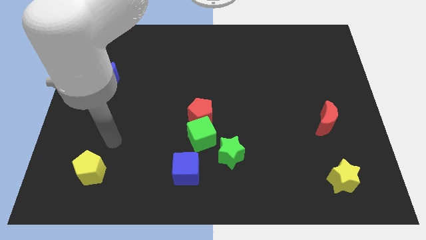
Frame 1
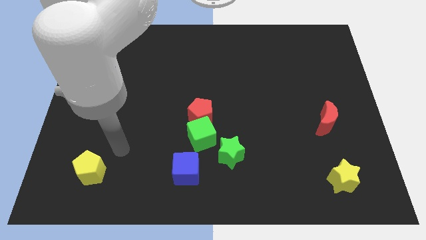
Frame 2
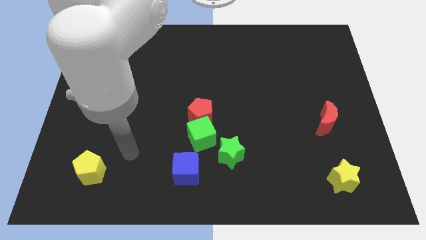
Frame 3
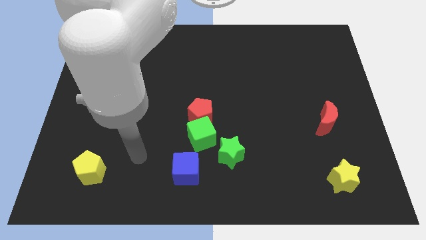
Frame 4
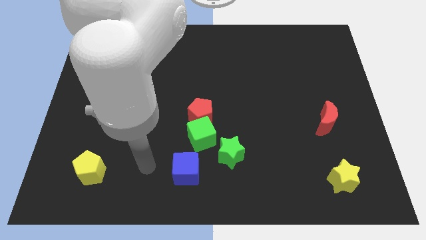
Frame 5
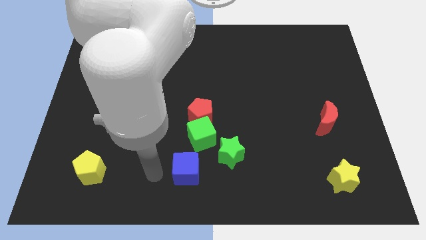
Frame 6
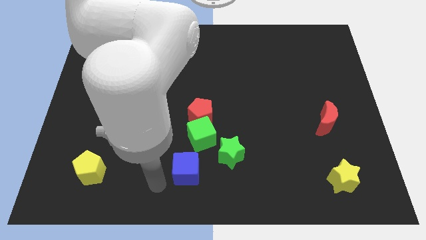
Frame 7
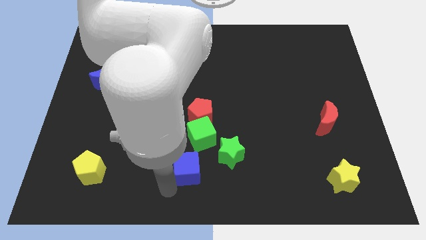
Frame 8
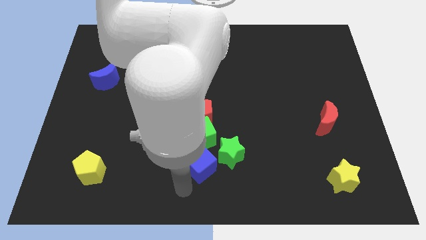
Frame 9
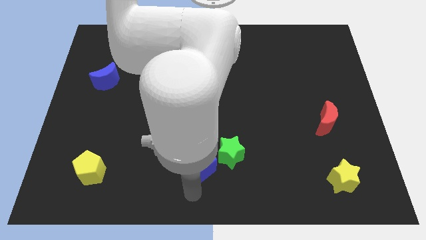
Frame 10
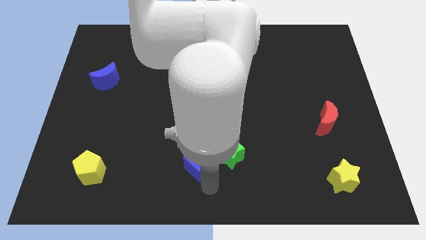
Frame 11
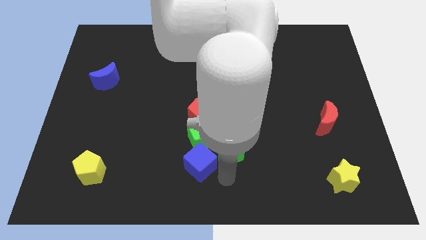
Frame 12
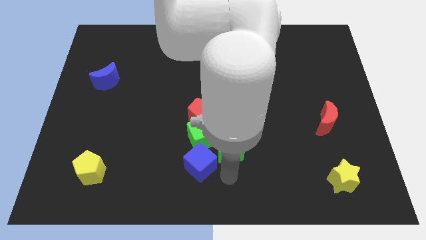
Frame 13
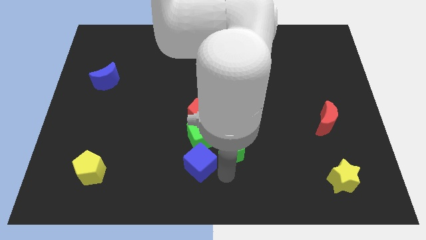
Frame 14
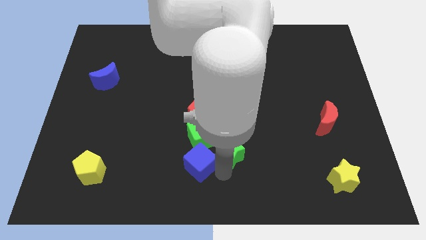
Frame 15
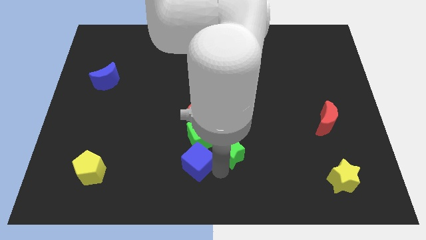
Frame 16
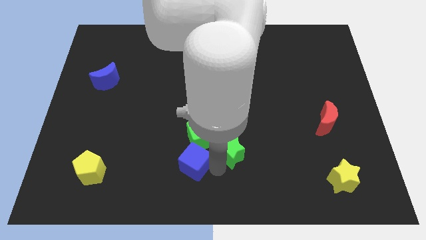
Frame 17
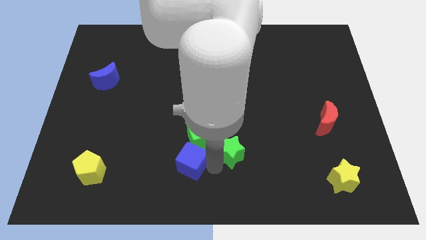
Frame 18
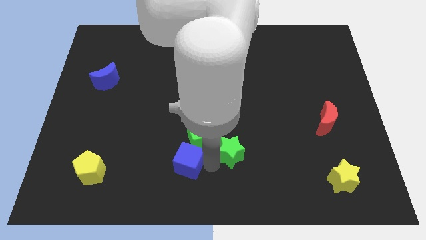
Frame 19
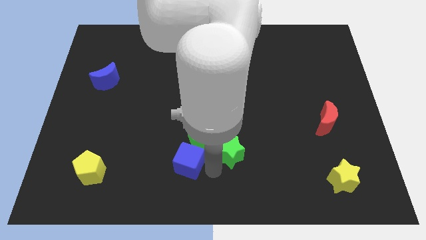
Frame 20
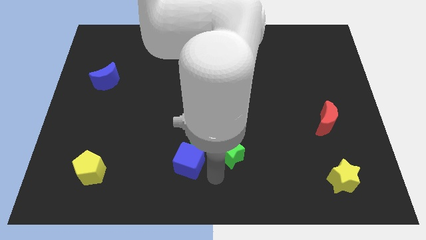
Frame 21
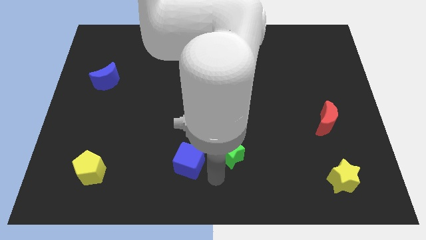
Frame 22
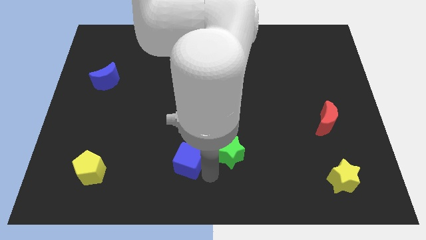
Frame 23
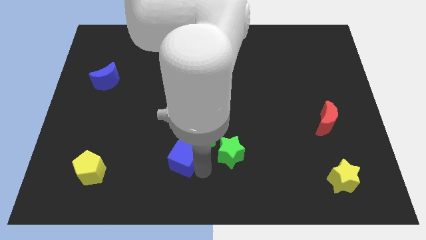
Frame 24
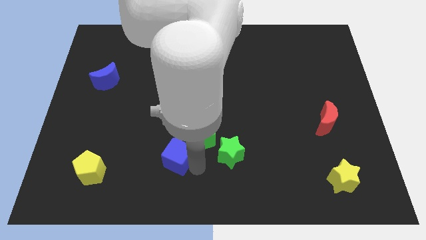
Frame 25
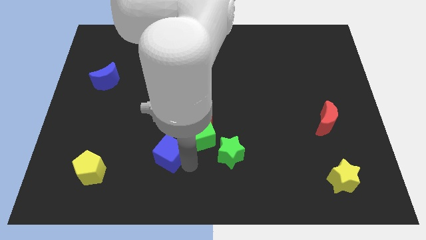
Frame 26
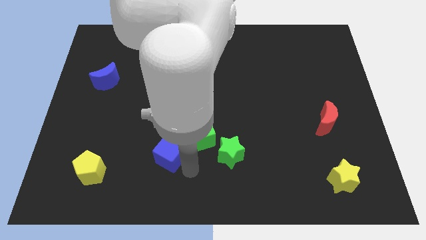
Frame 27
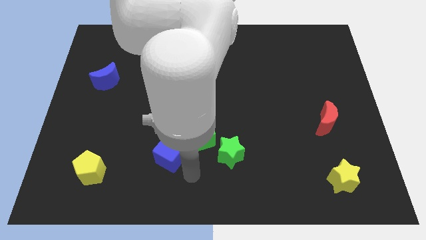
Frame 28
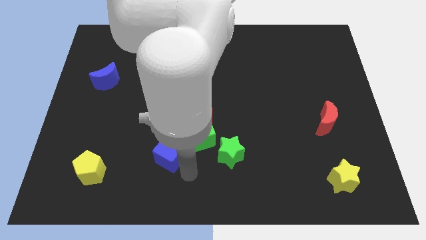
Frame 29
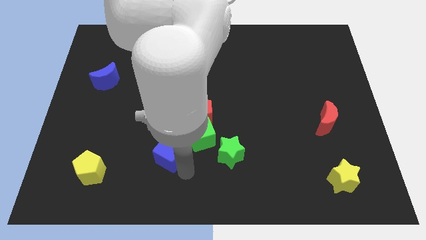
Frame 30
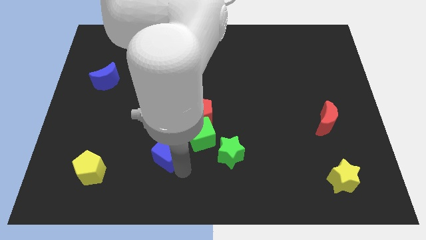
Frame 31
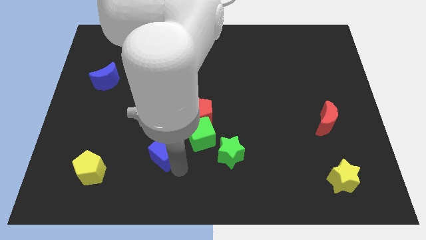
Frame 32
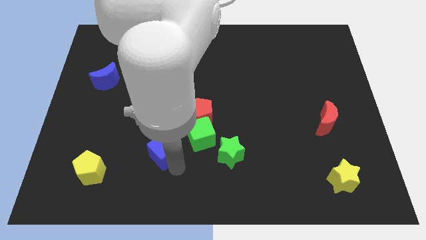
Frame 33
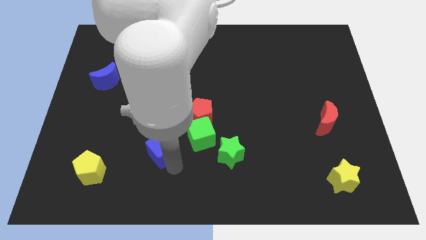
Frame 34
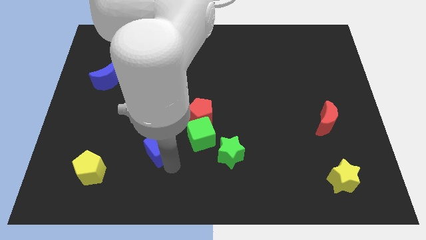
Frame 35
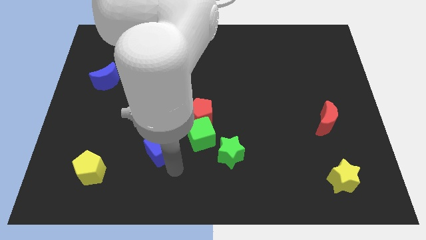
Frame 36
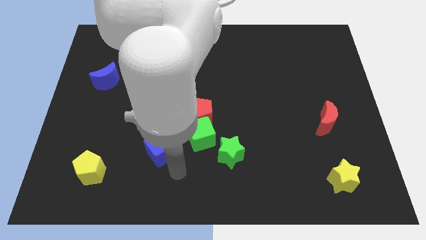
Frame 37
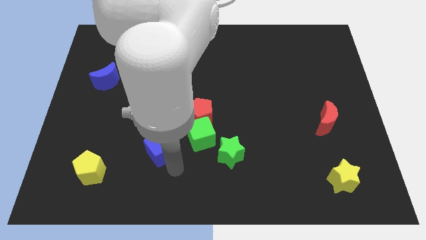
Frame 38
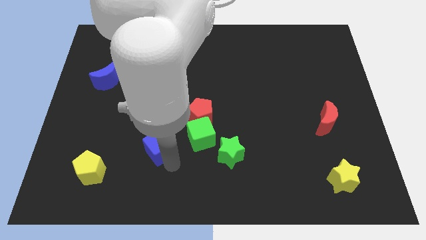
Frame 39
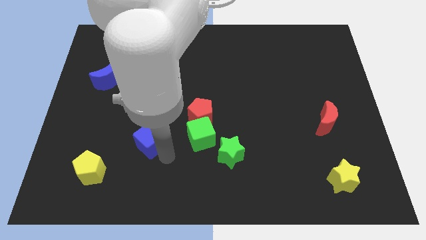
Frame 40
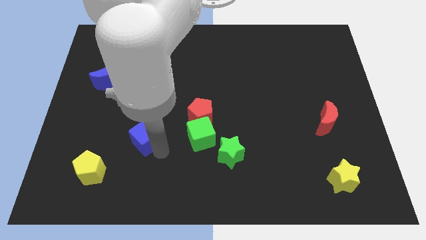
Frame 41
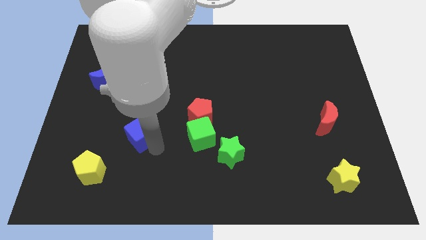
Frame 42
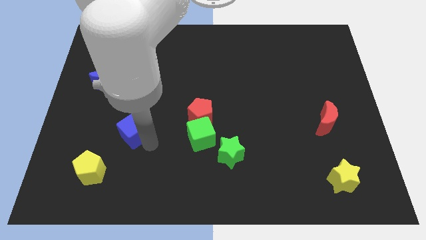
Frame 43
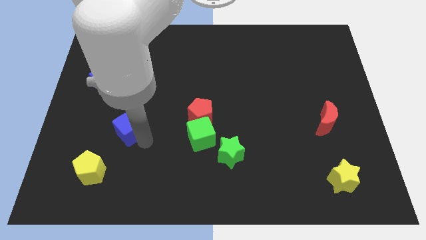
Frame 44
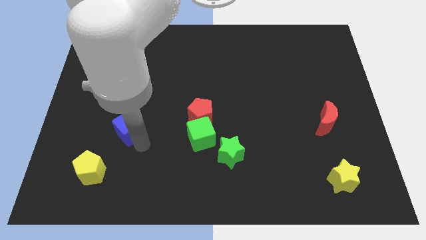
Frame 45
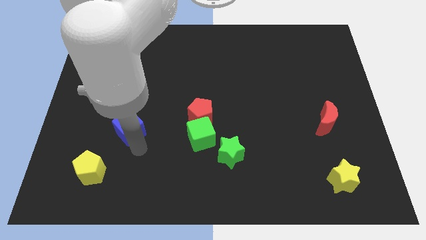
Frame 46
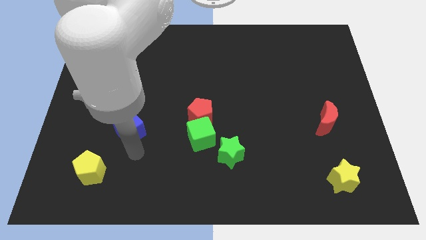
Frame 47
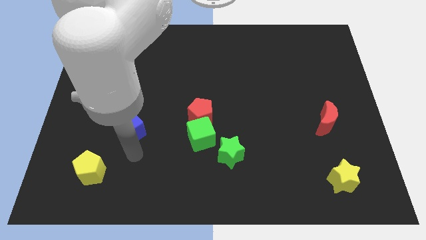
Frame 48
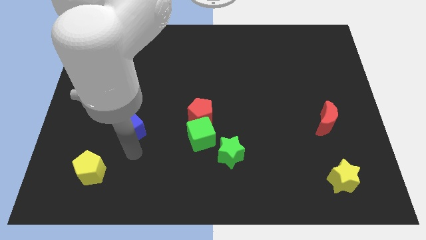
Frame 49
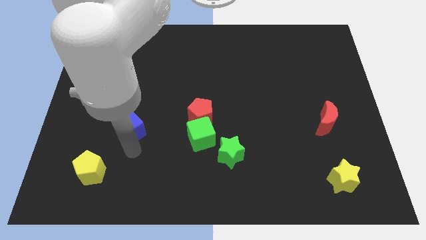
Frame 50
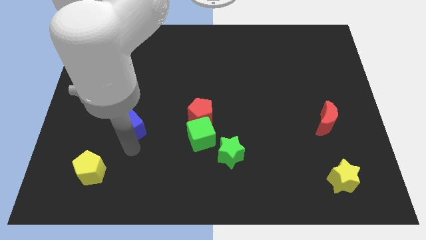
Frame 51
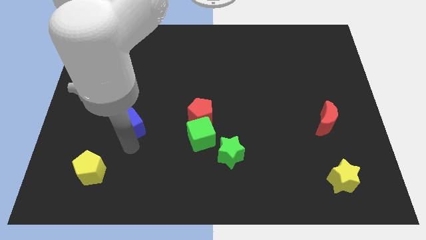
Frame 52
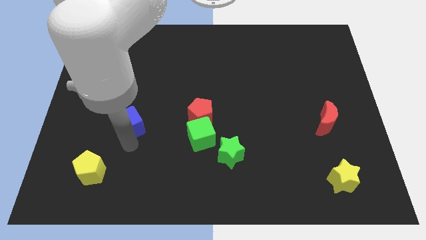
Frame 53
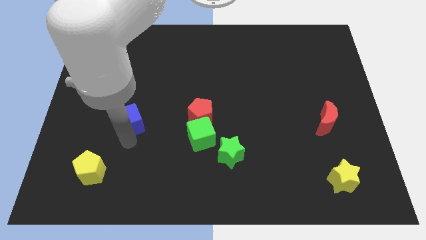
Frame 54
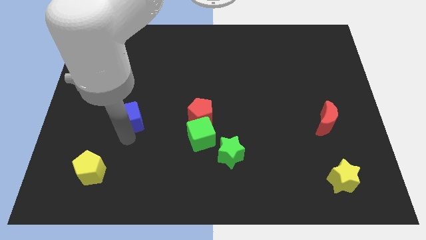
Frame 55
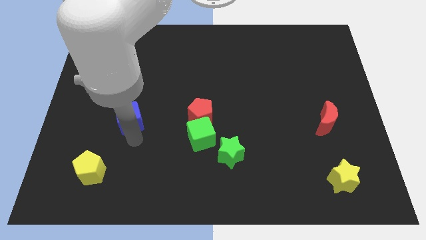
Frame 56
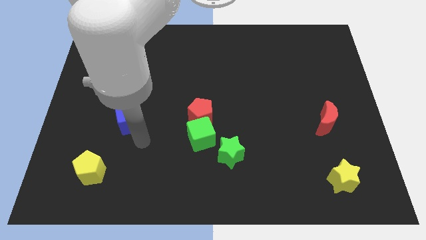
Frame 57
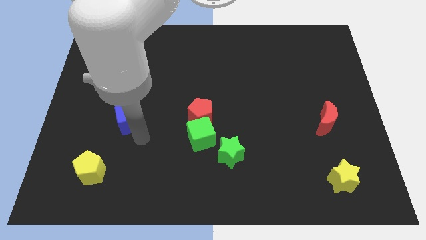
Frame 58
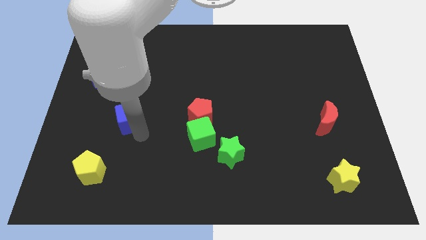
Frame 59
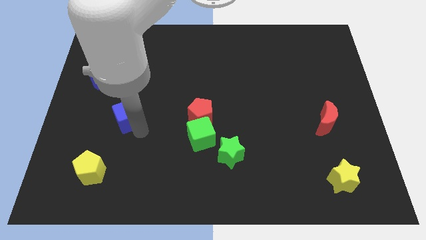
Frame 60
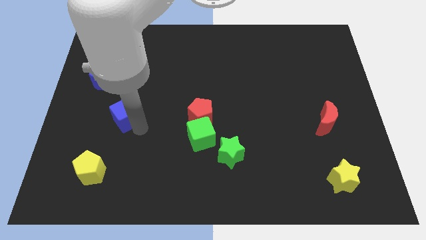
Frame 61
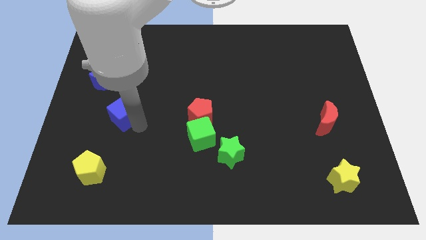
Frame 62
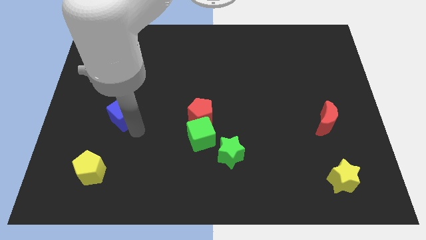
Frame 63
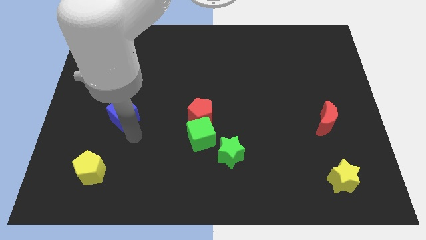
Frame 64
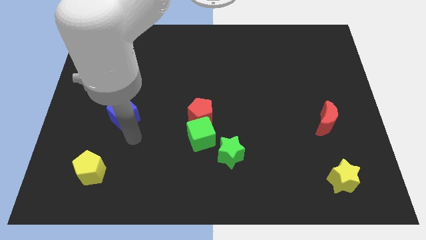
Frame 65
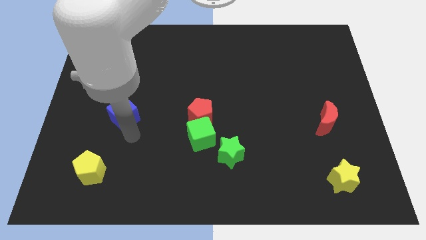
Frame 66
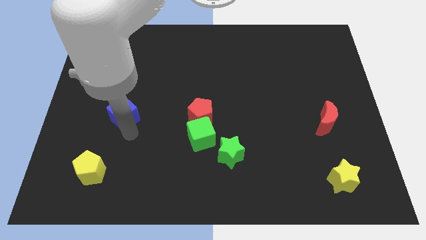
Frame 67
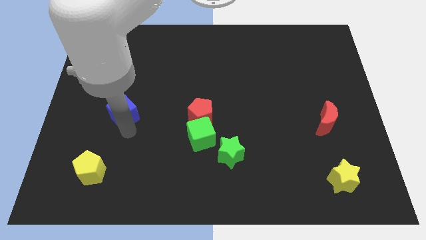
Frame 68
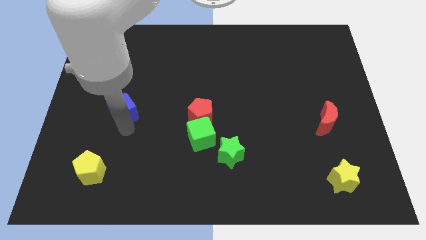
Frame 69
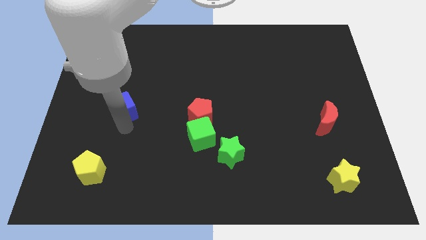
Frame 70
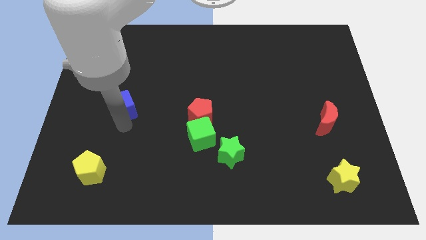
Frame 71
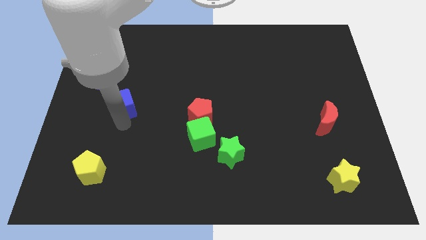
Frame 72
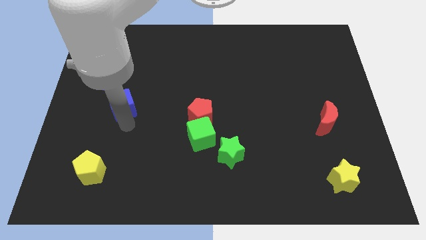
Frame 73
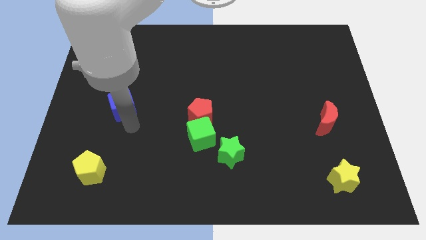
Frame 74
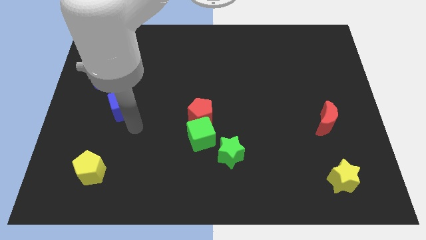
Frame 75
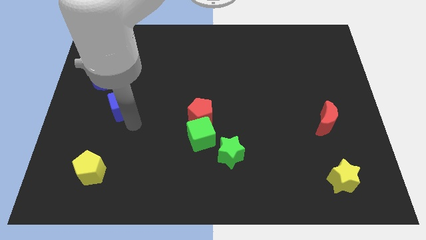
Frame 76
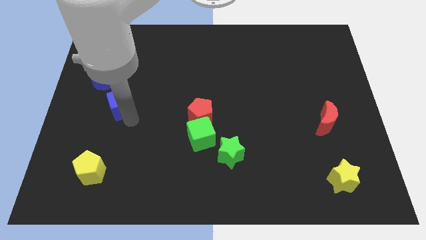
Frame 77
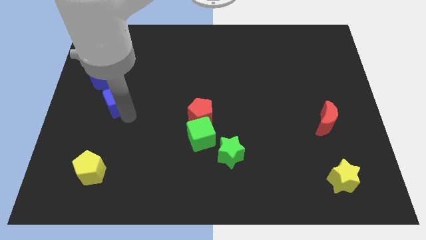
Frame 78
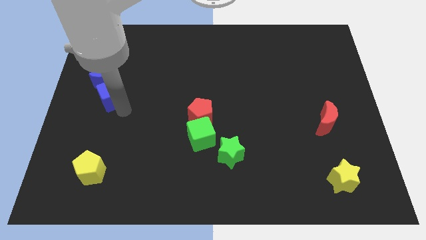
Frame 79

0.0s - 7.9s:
slide the blue cube close to the blue moon
